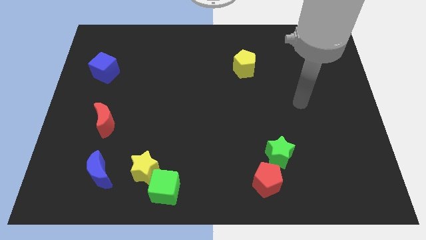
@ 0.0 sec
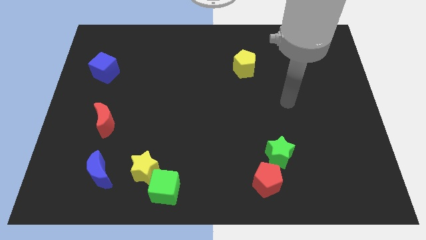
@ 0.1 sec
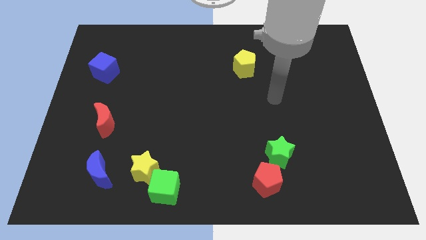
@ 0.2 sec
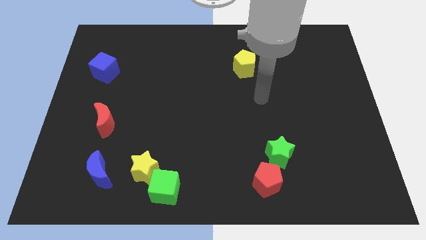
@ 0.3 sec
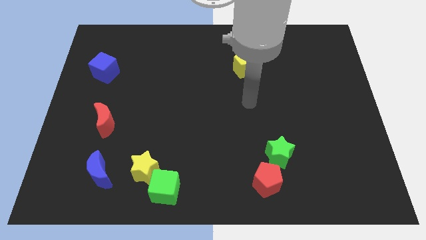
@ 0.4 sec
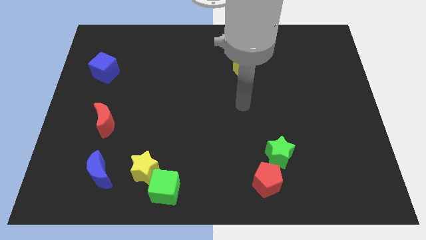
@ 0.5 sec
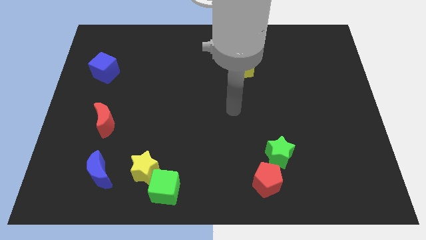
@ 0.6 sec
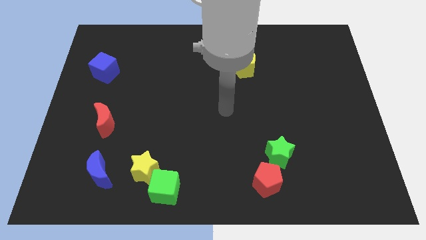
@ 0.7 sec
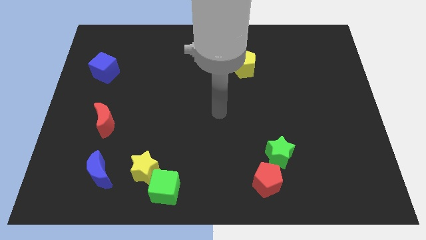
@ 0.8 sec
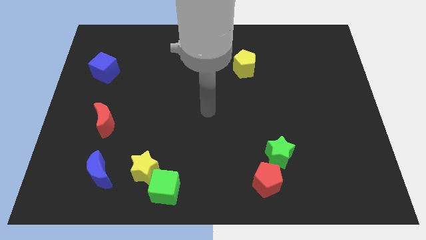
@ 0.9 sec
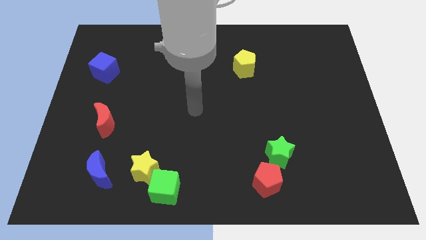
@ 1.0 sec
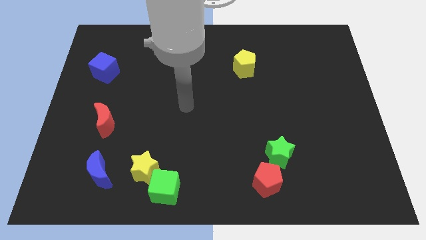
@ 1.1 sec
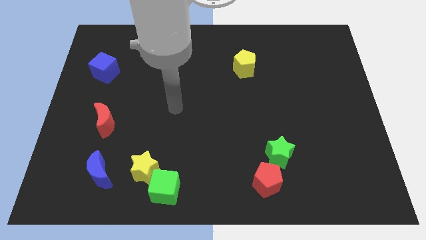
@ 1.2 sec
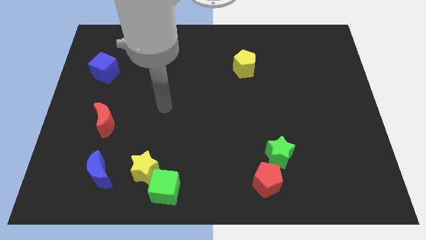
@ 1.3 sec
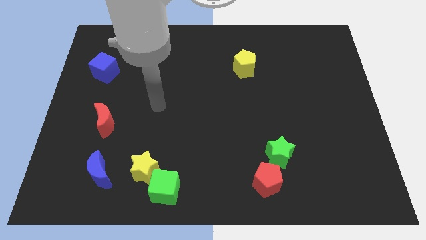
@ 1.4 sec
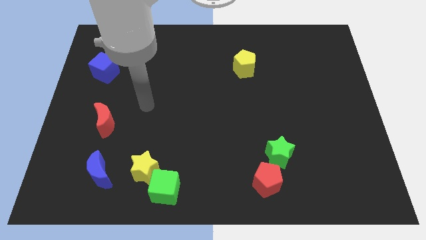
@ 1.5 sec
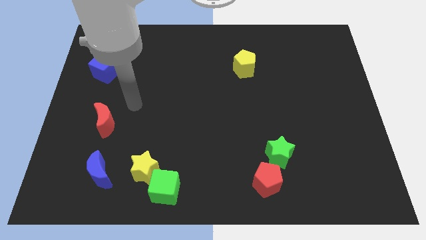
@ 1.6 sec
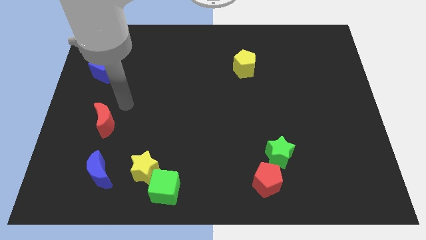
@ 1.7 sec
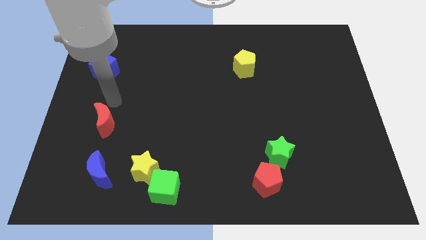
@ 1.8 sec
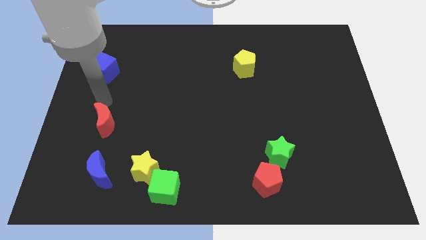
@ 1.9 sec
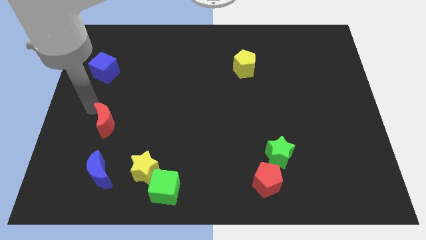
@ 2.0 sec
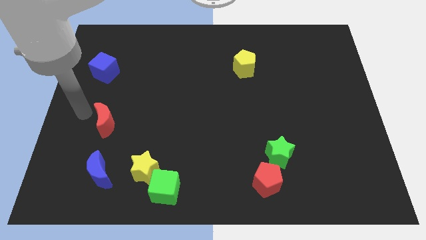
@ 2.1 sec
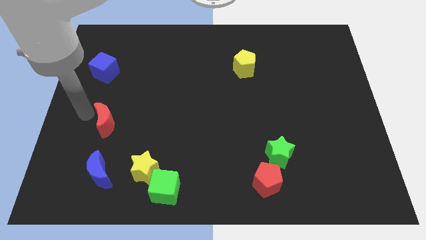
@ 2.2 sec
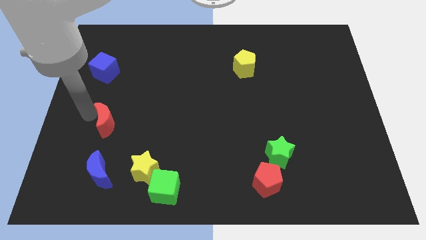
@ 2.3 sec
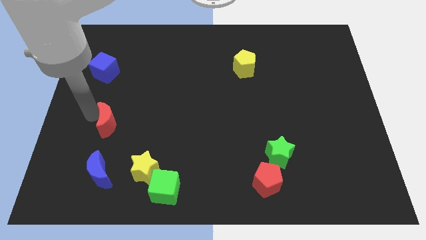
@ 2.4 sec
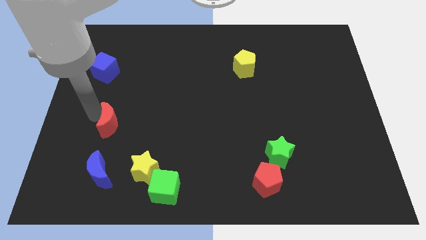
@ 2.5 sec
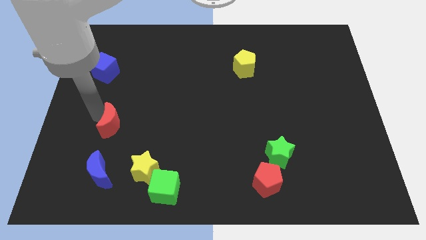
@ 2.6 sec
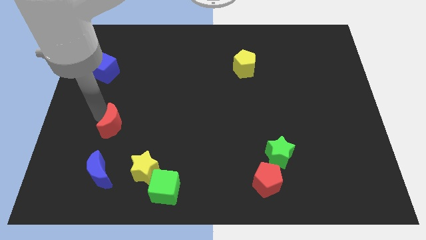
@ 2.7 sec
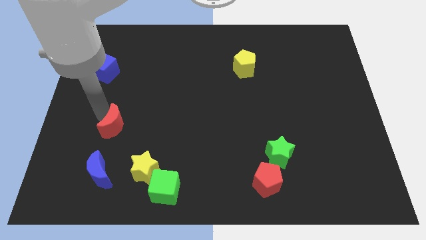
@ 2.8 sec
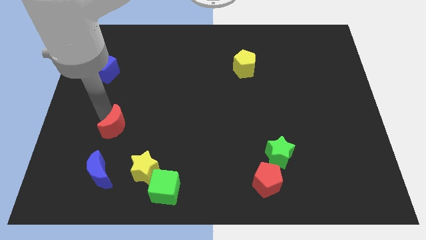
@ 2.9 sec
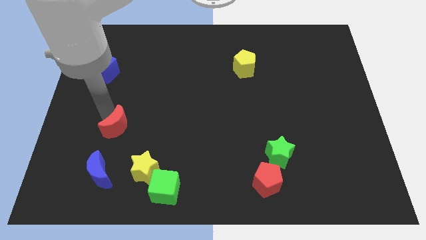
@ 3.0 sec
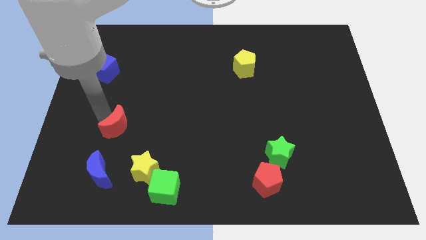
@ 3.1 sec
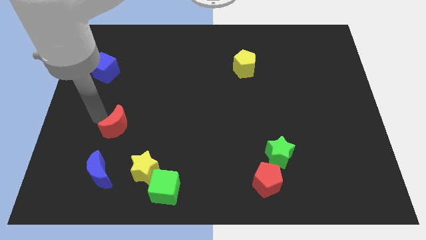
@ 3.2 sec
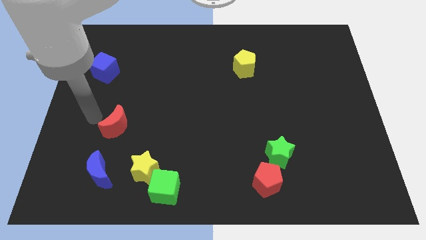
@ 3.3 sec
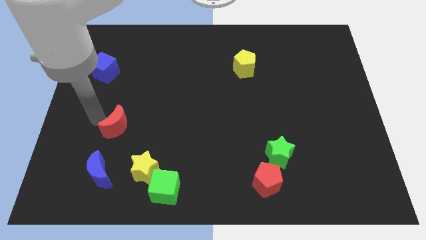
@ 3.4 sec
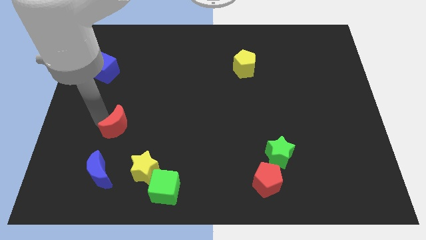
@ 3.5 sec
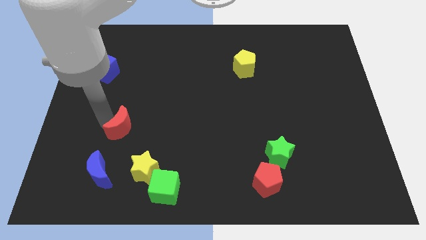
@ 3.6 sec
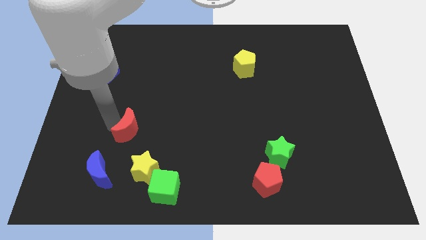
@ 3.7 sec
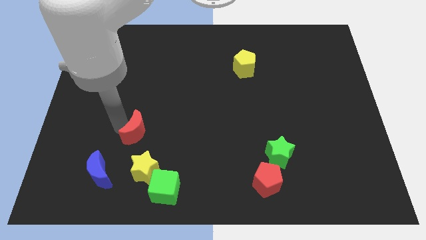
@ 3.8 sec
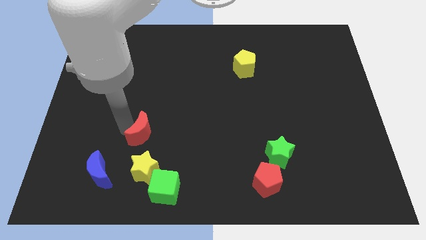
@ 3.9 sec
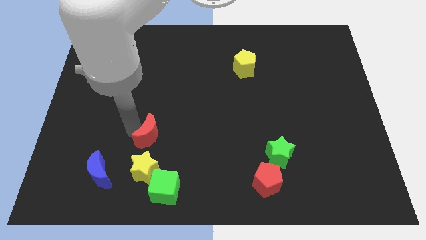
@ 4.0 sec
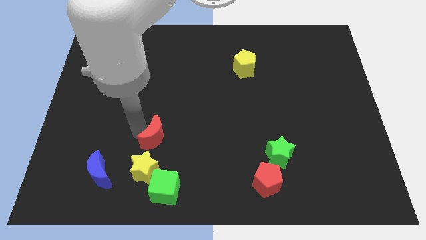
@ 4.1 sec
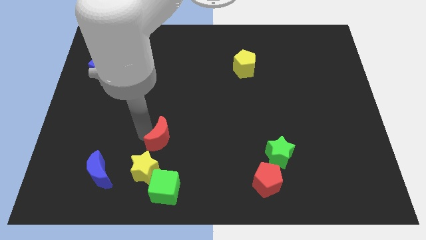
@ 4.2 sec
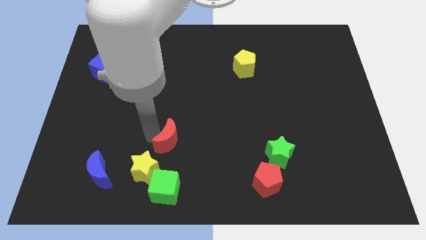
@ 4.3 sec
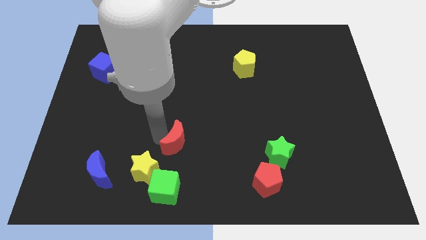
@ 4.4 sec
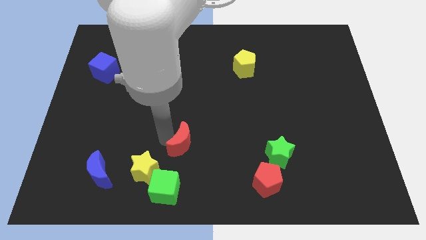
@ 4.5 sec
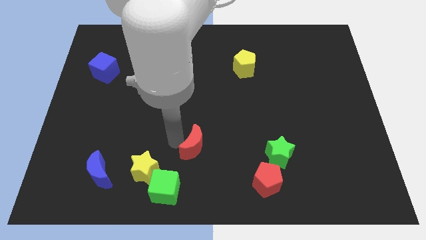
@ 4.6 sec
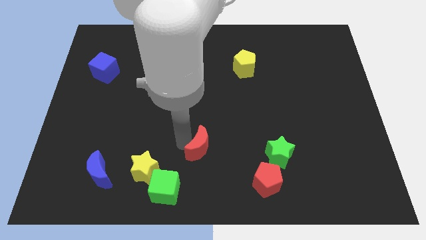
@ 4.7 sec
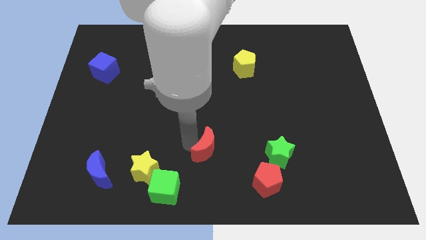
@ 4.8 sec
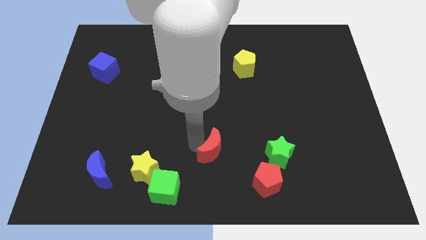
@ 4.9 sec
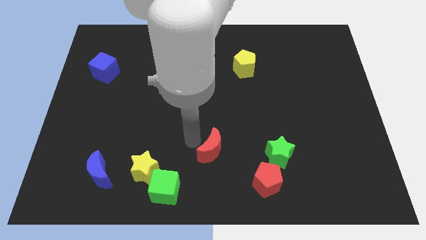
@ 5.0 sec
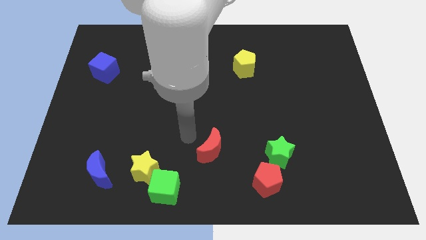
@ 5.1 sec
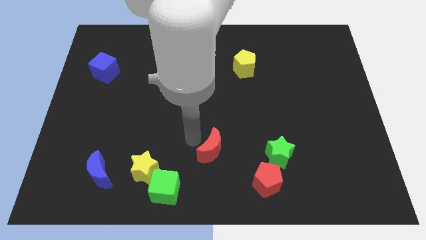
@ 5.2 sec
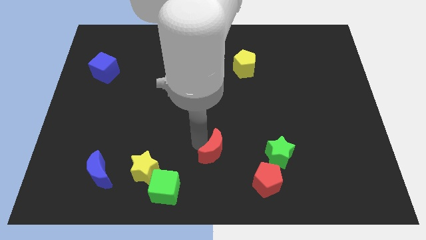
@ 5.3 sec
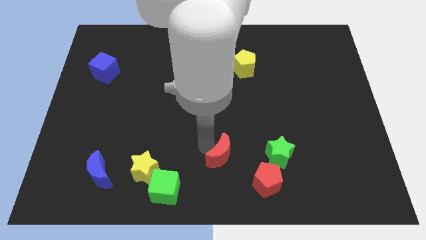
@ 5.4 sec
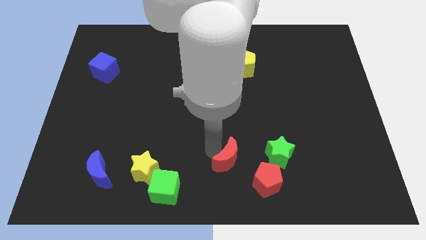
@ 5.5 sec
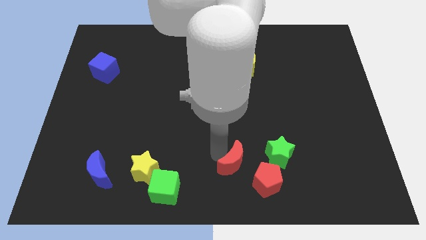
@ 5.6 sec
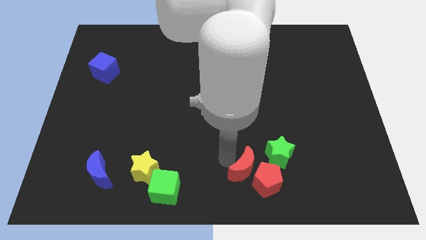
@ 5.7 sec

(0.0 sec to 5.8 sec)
put the red moon towards the red pentagon

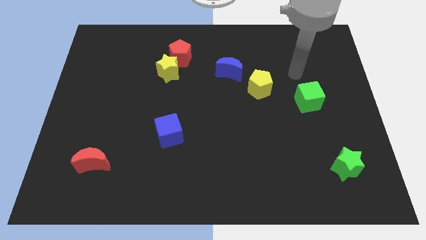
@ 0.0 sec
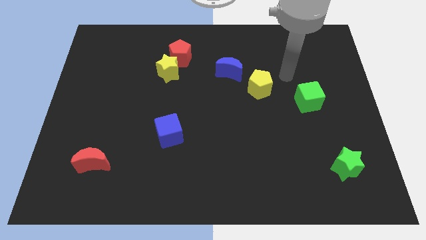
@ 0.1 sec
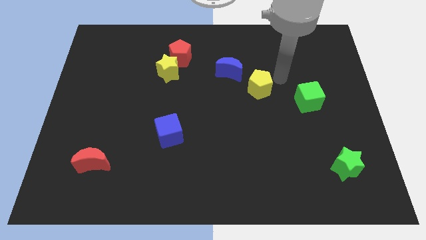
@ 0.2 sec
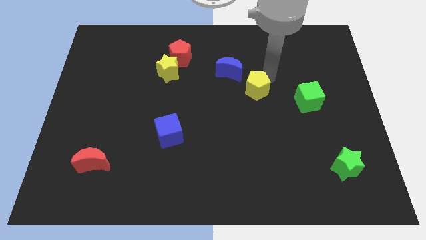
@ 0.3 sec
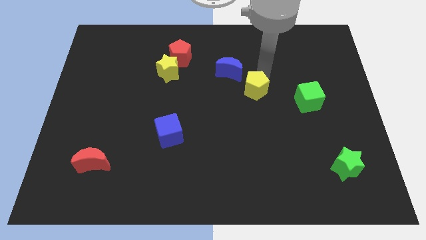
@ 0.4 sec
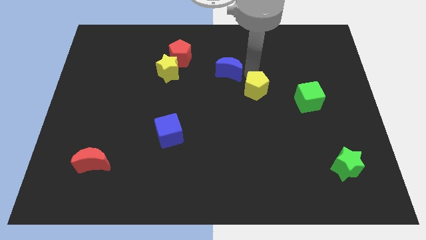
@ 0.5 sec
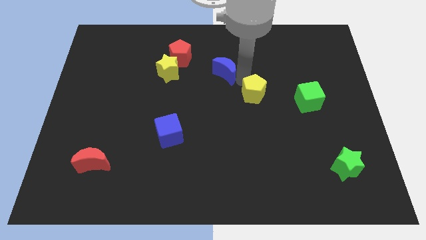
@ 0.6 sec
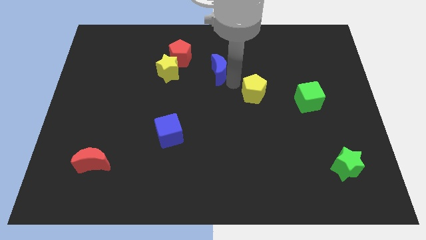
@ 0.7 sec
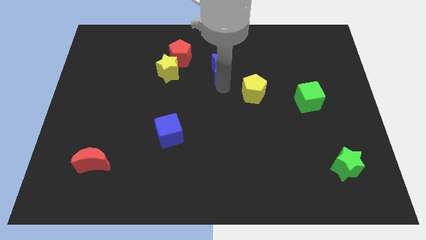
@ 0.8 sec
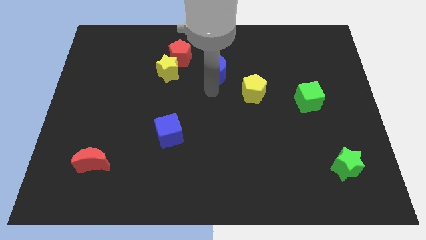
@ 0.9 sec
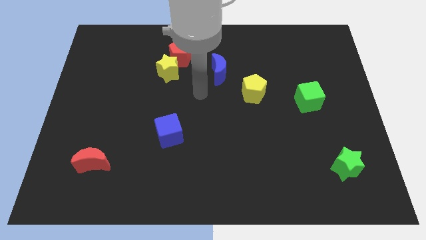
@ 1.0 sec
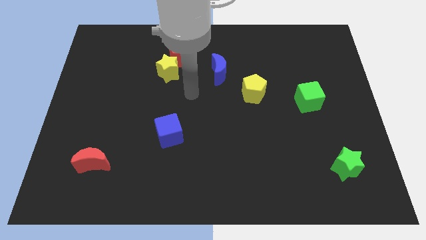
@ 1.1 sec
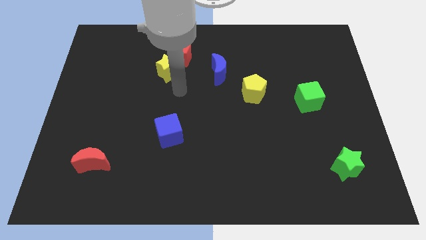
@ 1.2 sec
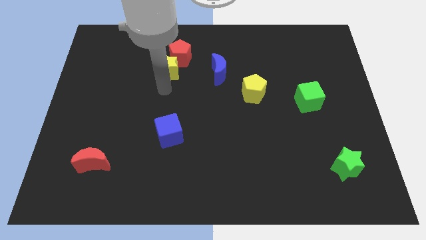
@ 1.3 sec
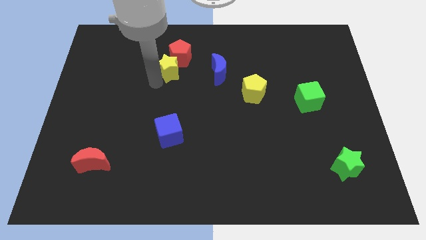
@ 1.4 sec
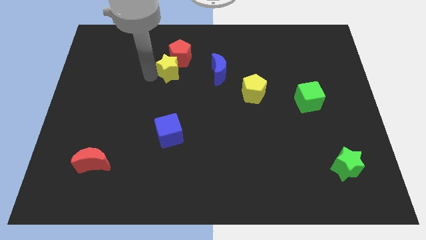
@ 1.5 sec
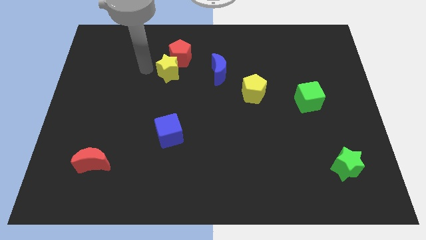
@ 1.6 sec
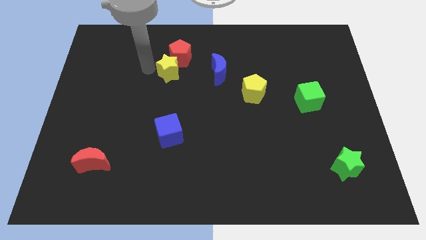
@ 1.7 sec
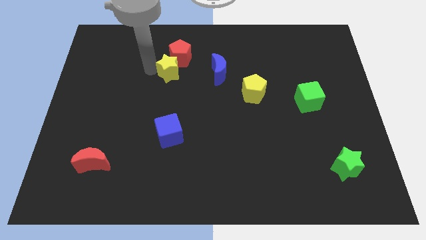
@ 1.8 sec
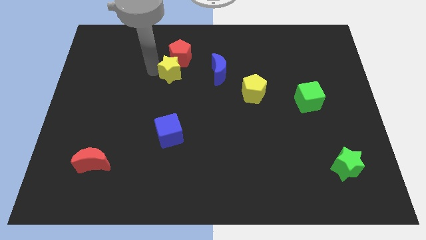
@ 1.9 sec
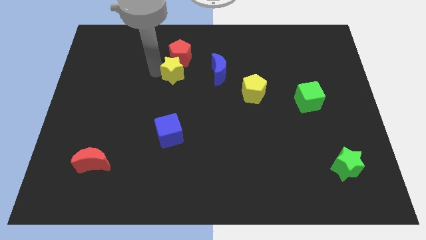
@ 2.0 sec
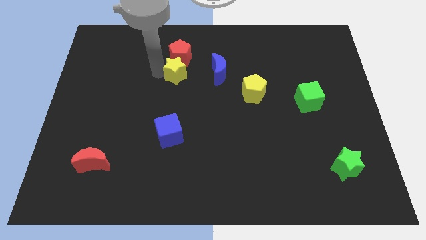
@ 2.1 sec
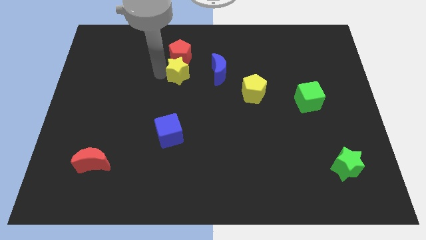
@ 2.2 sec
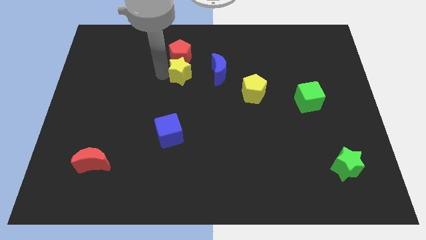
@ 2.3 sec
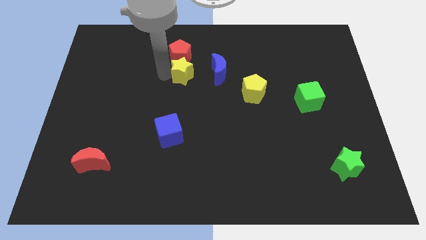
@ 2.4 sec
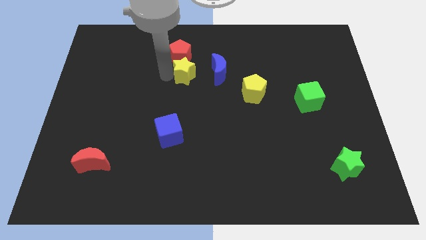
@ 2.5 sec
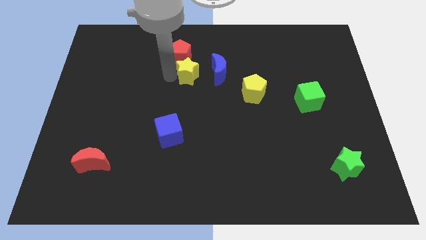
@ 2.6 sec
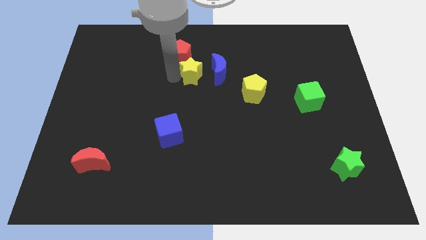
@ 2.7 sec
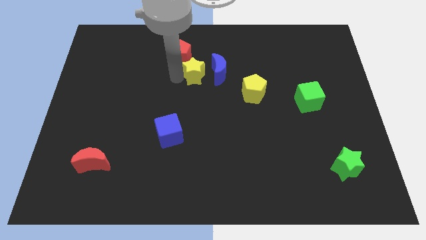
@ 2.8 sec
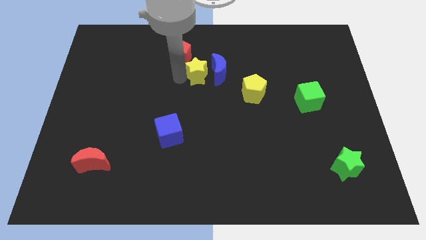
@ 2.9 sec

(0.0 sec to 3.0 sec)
push the yellow star towards the blue moon
